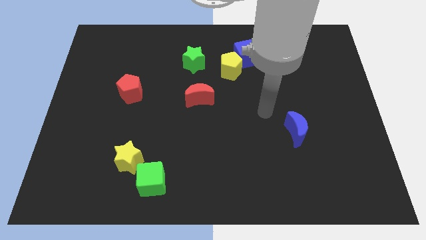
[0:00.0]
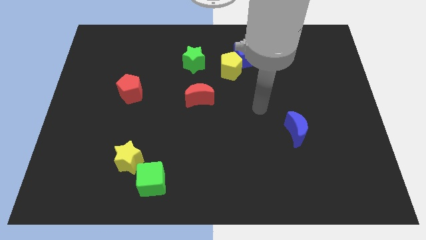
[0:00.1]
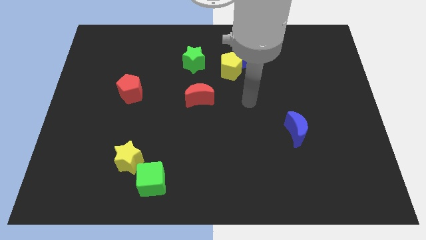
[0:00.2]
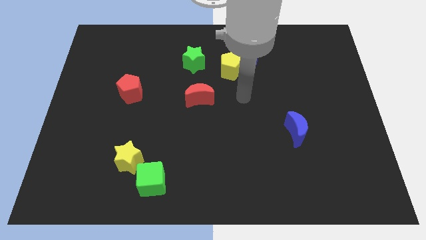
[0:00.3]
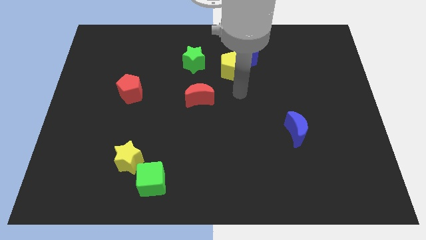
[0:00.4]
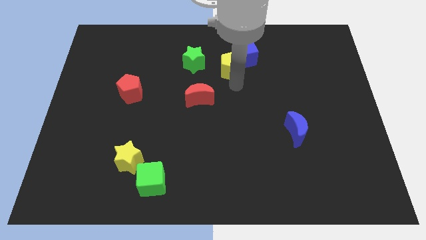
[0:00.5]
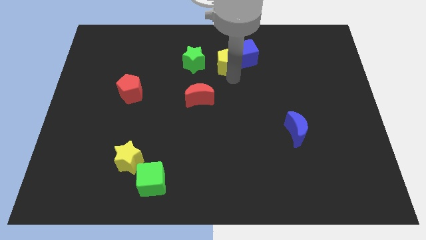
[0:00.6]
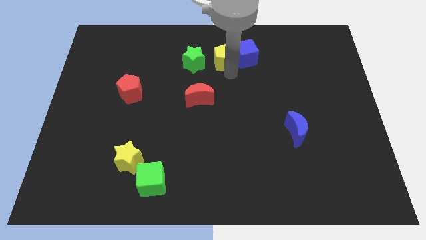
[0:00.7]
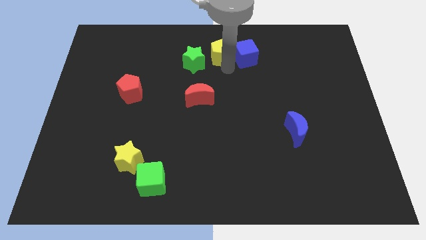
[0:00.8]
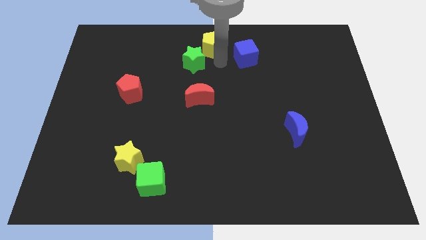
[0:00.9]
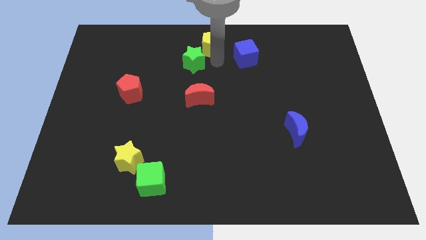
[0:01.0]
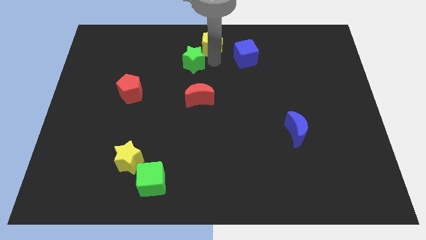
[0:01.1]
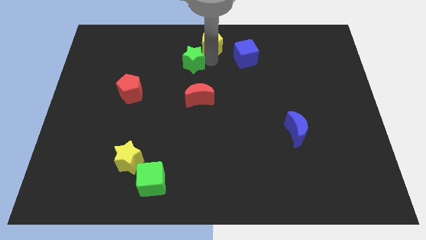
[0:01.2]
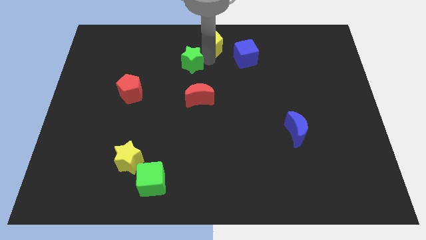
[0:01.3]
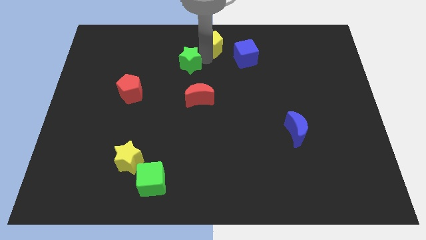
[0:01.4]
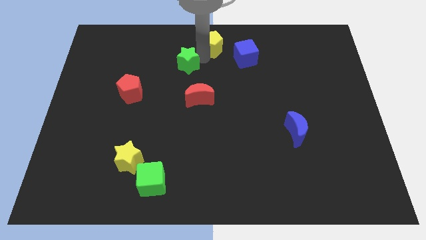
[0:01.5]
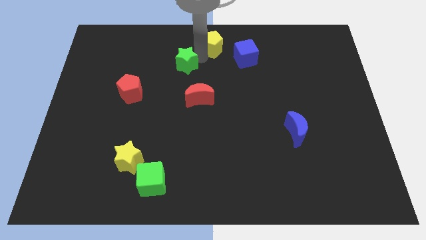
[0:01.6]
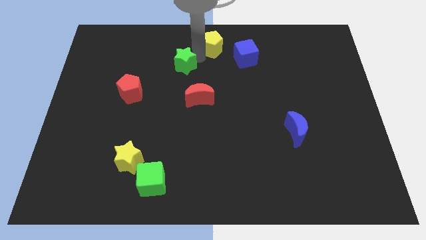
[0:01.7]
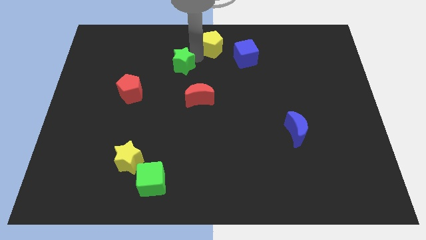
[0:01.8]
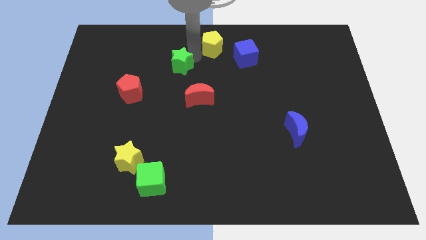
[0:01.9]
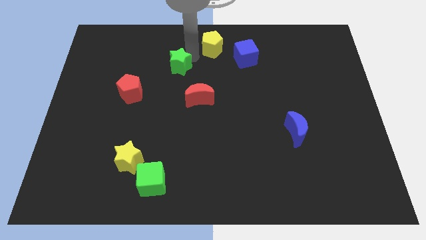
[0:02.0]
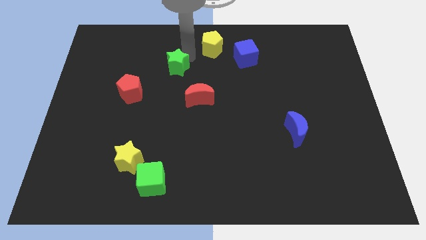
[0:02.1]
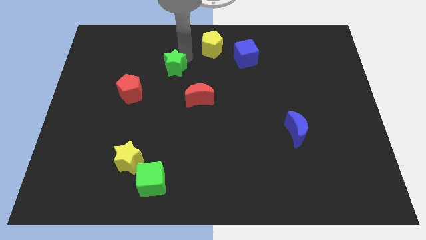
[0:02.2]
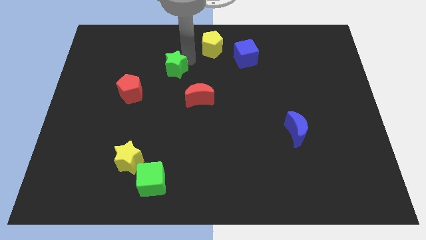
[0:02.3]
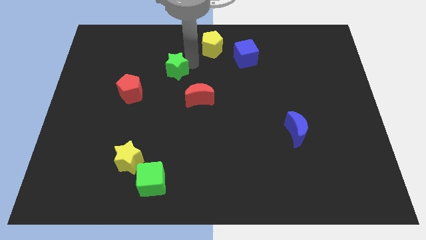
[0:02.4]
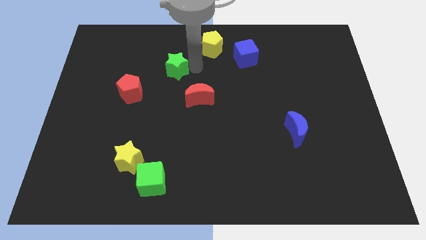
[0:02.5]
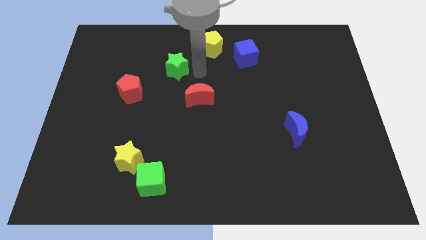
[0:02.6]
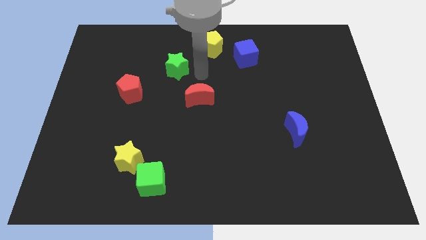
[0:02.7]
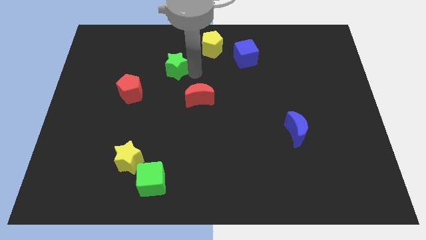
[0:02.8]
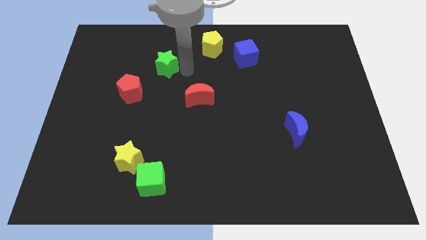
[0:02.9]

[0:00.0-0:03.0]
slide the green star slightly to the left

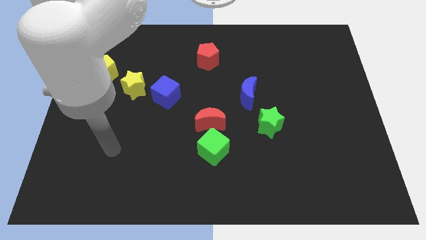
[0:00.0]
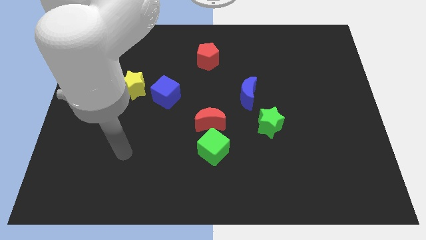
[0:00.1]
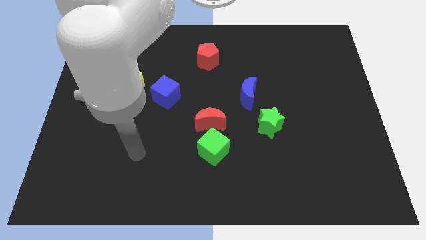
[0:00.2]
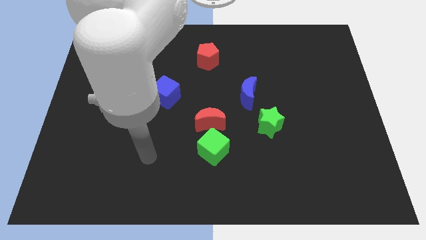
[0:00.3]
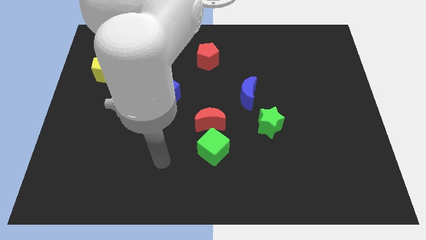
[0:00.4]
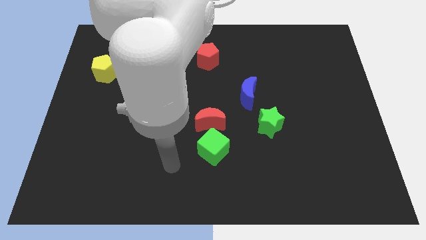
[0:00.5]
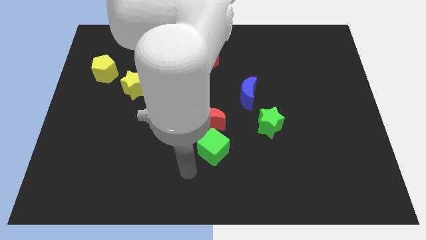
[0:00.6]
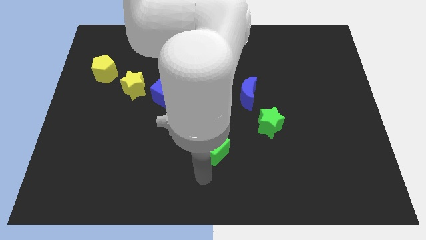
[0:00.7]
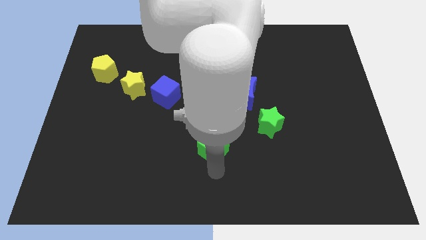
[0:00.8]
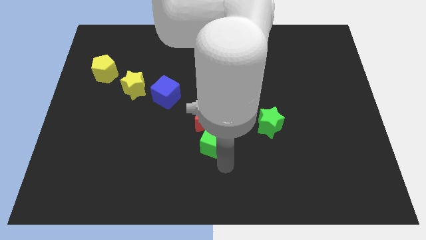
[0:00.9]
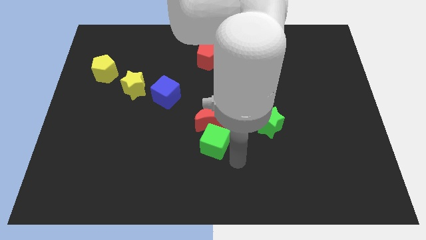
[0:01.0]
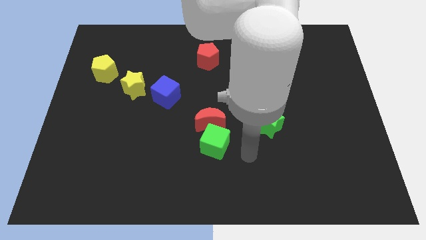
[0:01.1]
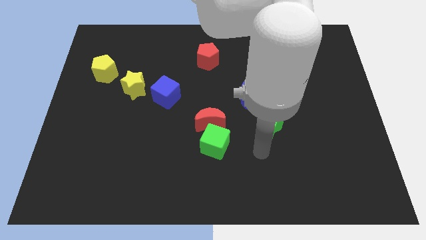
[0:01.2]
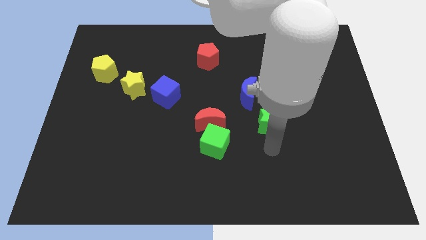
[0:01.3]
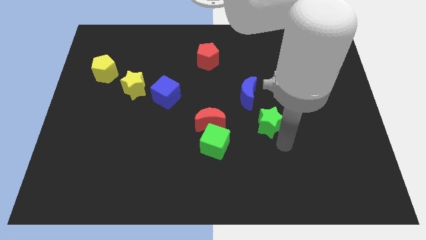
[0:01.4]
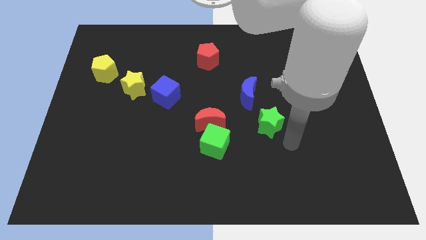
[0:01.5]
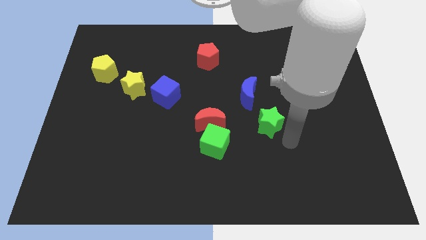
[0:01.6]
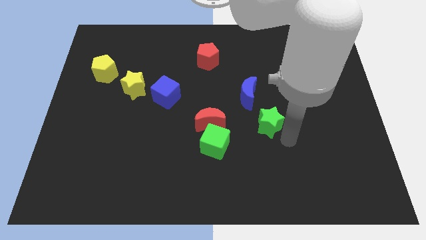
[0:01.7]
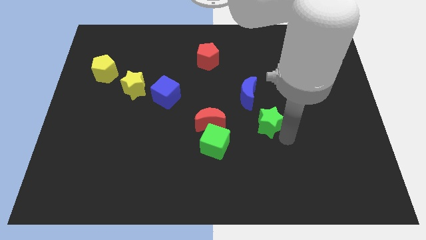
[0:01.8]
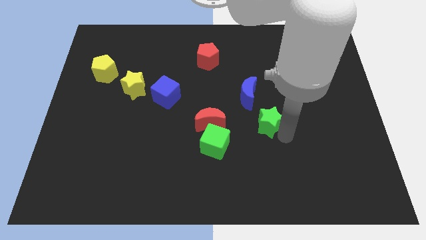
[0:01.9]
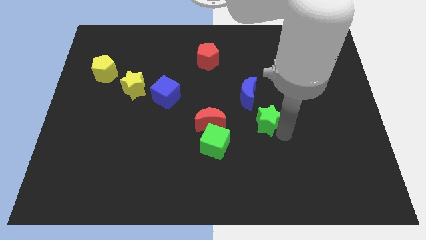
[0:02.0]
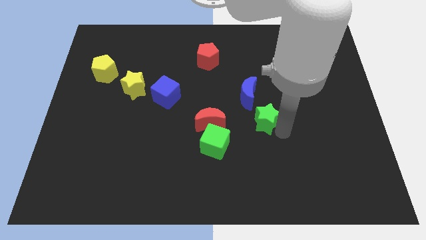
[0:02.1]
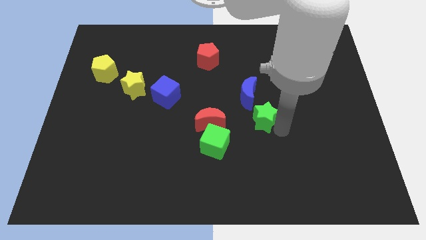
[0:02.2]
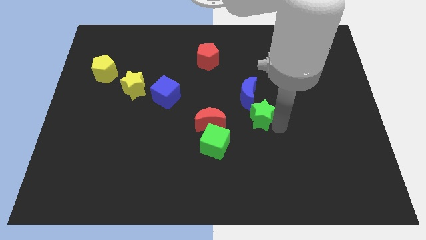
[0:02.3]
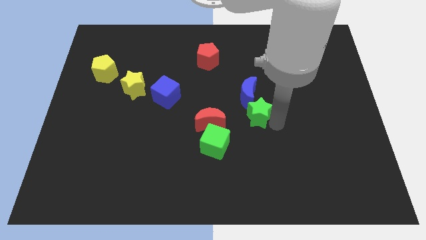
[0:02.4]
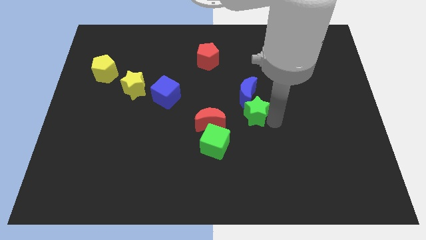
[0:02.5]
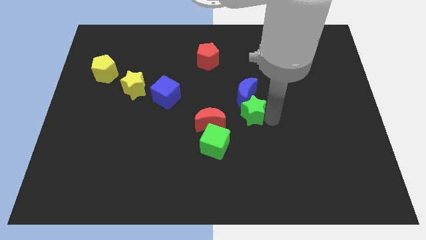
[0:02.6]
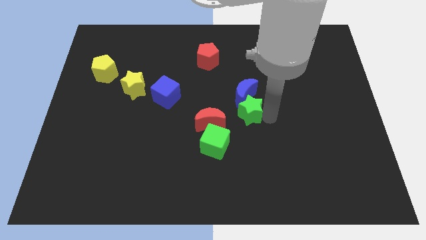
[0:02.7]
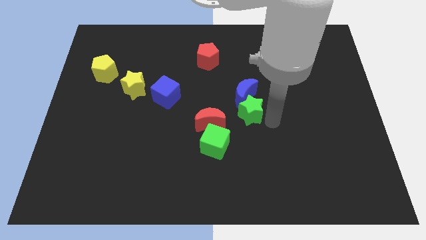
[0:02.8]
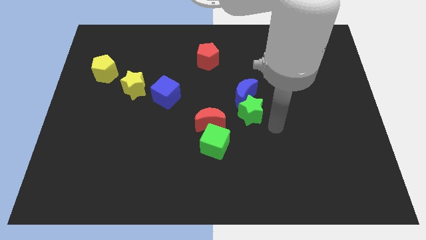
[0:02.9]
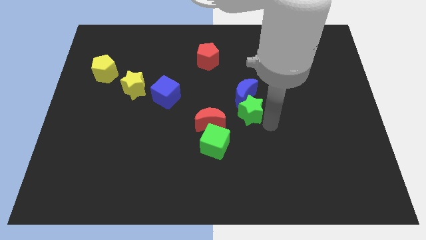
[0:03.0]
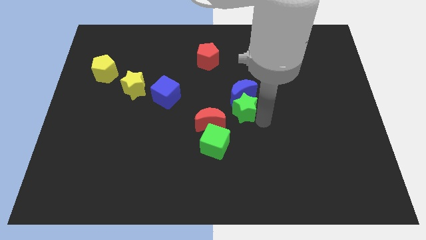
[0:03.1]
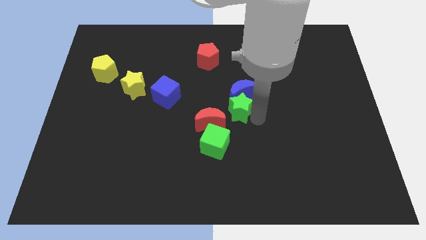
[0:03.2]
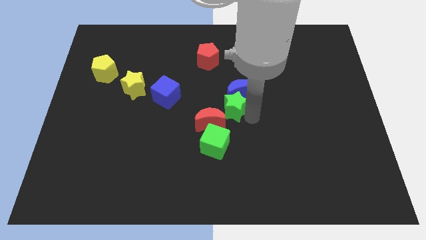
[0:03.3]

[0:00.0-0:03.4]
slightly move the green star left

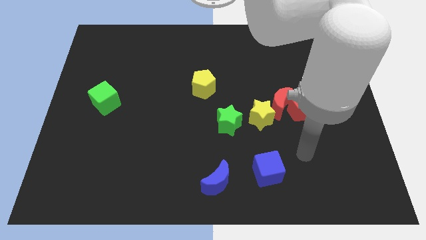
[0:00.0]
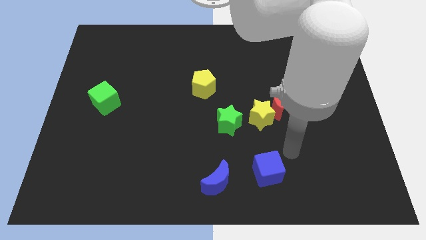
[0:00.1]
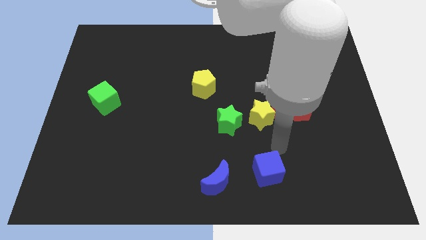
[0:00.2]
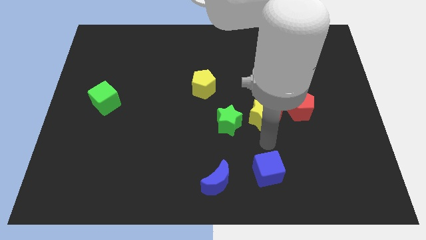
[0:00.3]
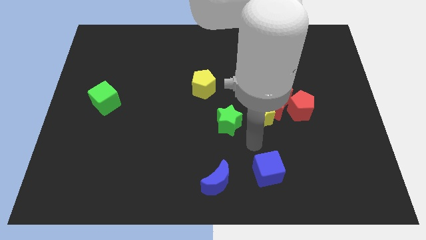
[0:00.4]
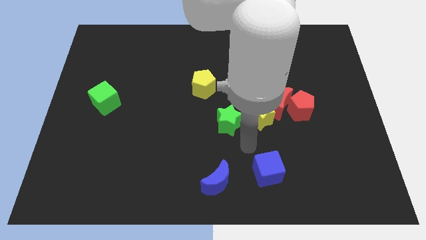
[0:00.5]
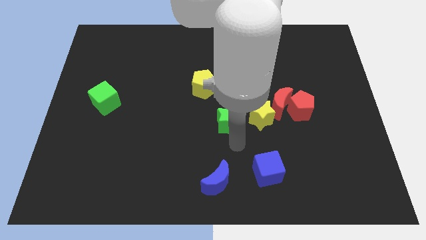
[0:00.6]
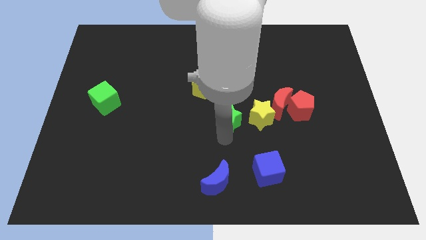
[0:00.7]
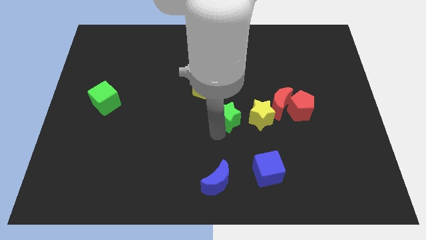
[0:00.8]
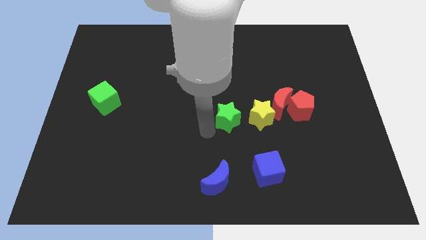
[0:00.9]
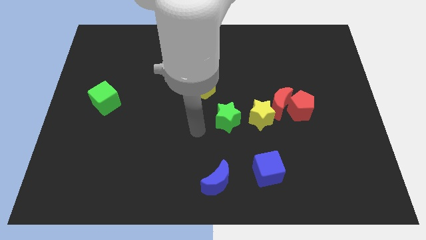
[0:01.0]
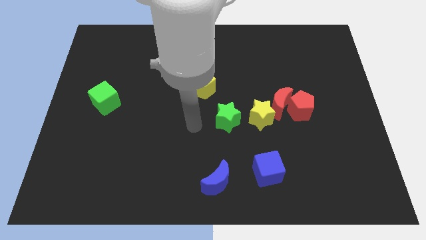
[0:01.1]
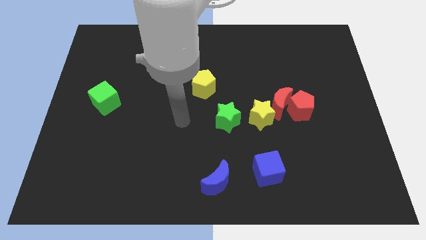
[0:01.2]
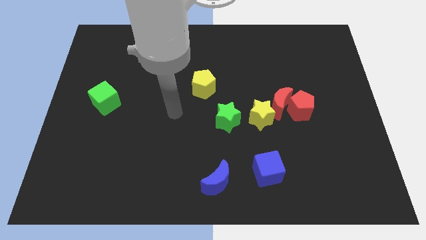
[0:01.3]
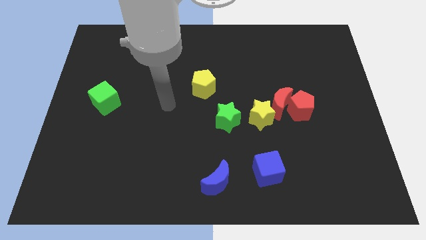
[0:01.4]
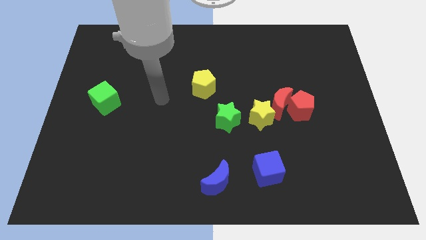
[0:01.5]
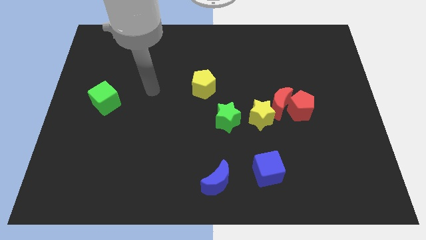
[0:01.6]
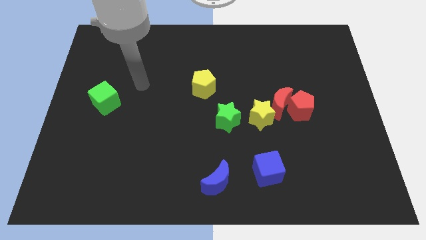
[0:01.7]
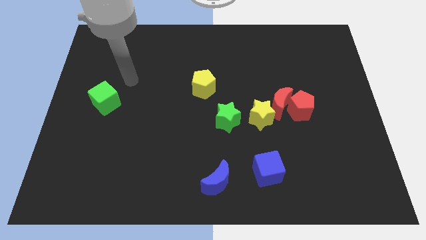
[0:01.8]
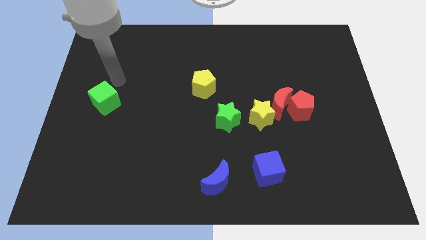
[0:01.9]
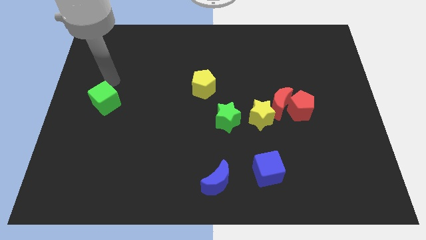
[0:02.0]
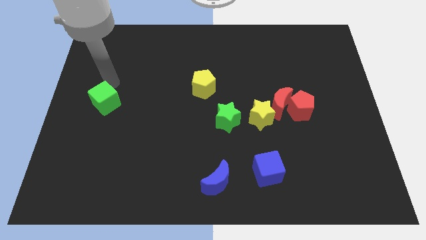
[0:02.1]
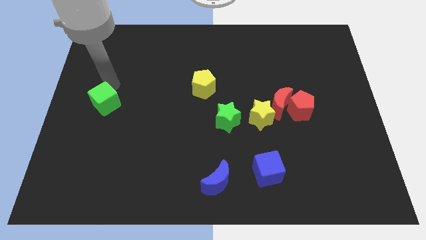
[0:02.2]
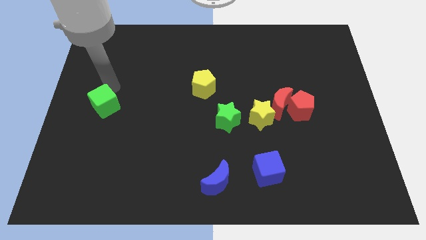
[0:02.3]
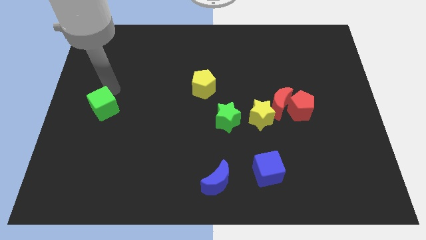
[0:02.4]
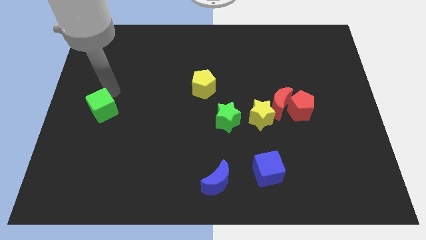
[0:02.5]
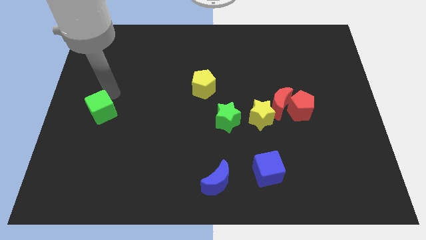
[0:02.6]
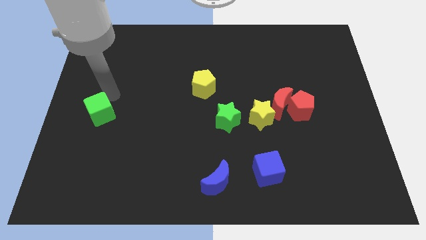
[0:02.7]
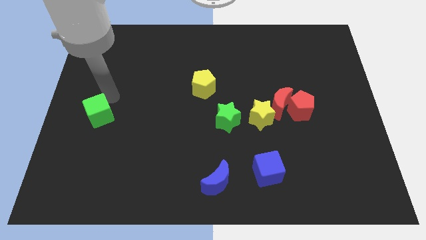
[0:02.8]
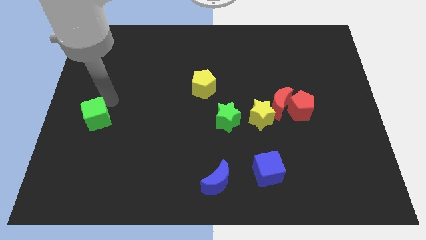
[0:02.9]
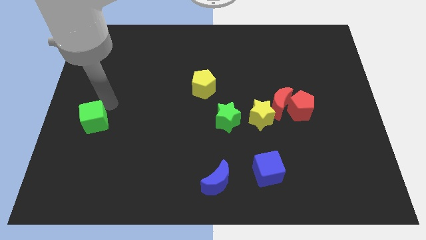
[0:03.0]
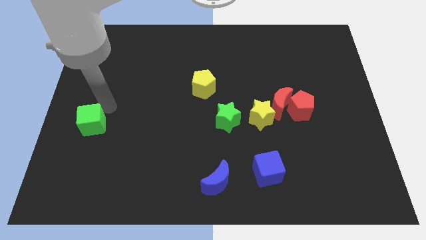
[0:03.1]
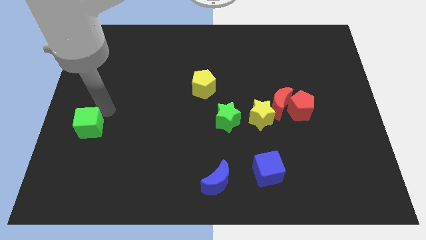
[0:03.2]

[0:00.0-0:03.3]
push the green cube a little bit downwards
